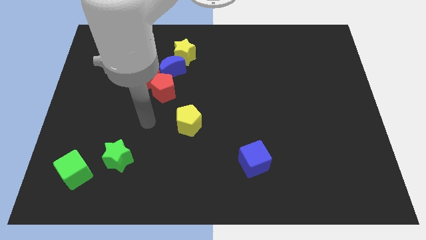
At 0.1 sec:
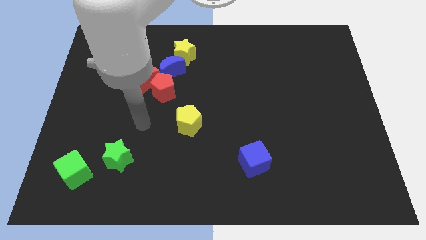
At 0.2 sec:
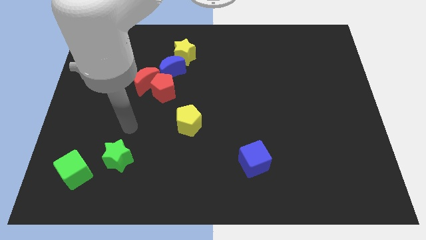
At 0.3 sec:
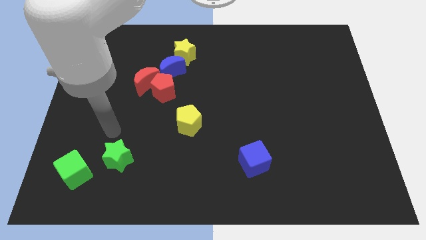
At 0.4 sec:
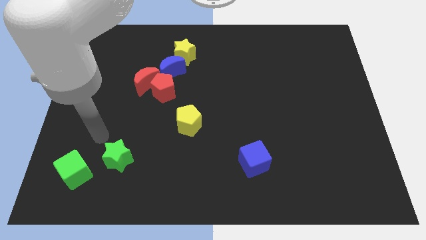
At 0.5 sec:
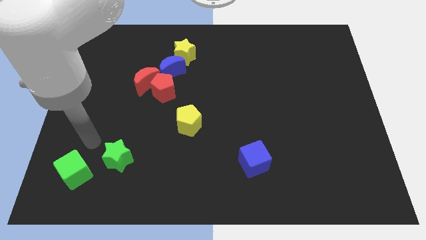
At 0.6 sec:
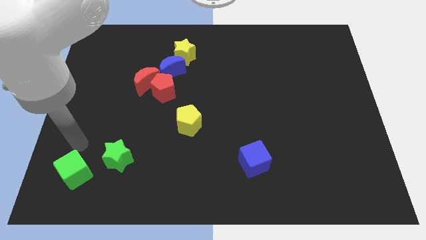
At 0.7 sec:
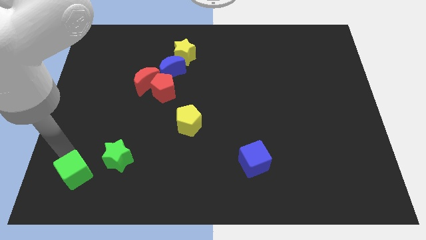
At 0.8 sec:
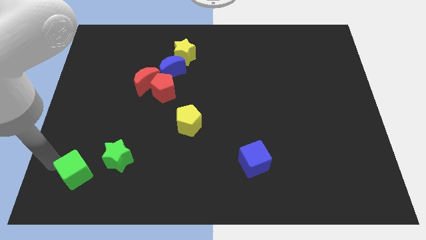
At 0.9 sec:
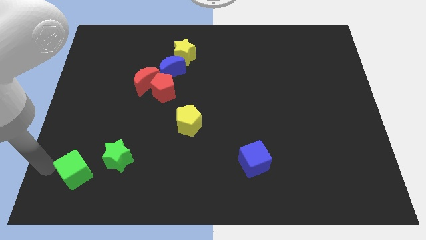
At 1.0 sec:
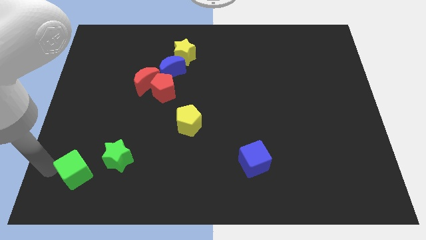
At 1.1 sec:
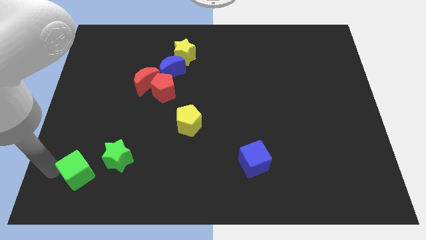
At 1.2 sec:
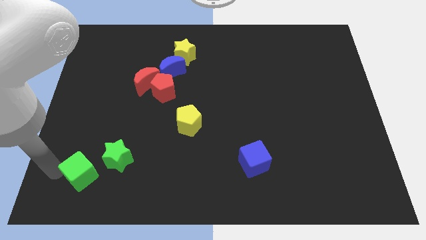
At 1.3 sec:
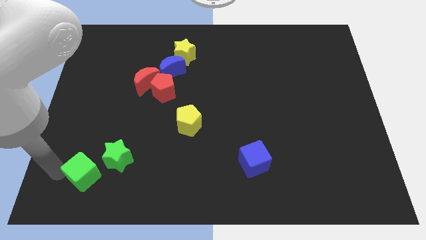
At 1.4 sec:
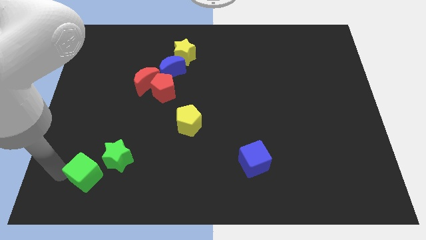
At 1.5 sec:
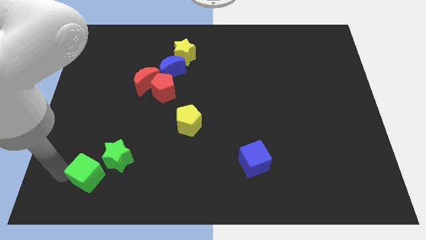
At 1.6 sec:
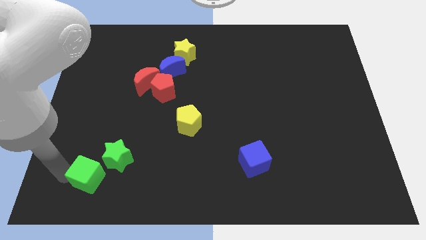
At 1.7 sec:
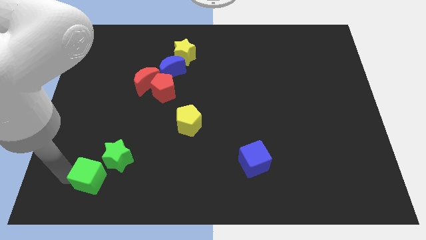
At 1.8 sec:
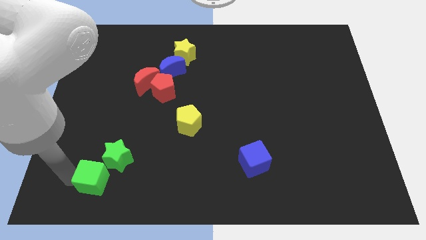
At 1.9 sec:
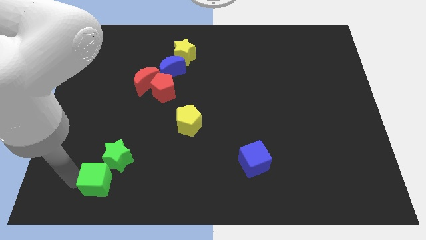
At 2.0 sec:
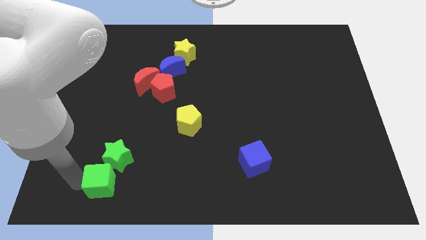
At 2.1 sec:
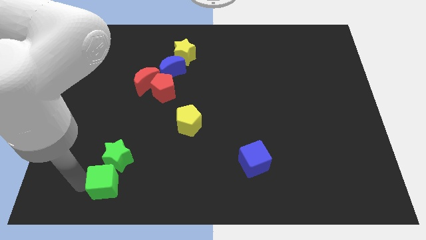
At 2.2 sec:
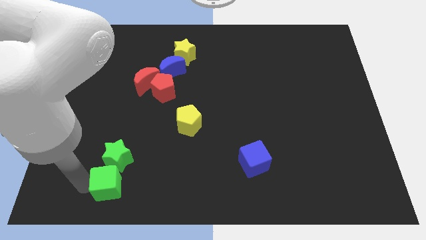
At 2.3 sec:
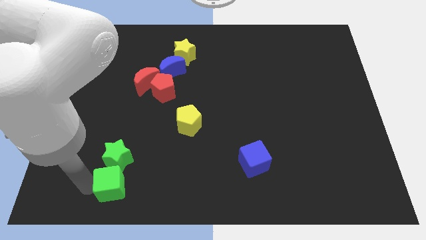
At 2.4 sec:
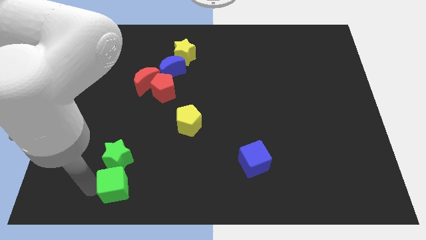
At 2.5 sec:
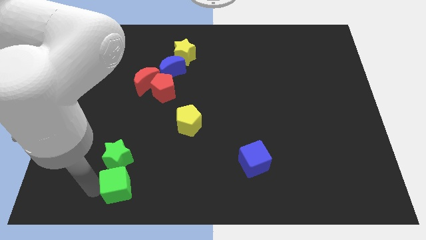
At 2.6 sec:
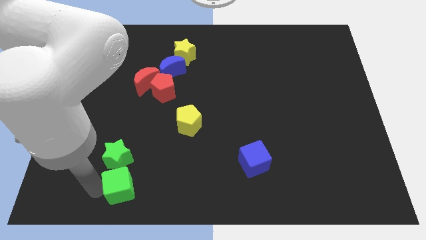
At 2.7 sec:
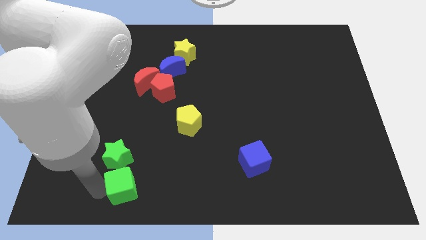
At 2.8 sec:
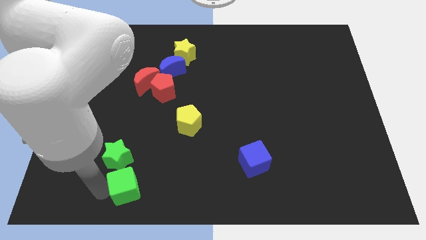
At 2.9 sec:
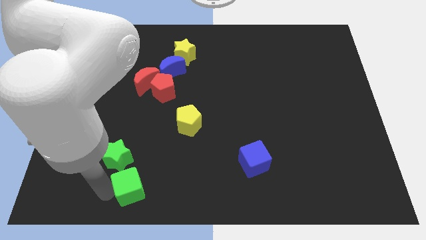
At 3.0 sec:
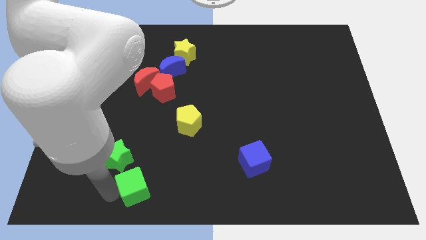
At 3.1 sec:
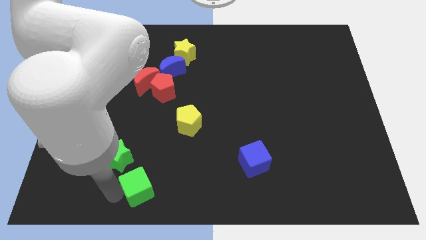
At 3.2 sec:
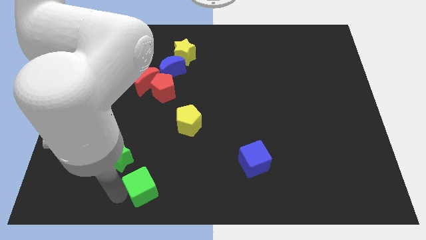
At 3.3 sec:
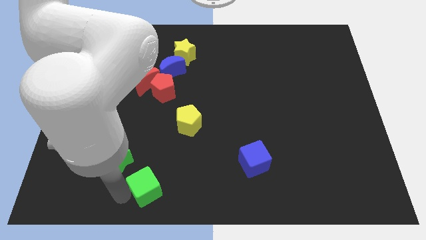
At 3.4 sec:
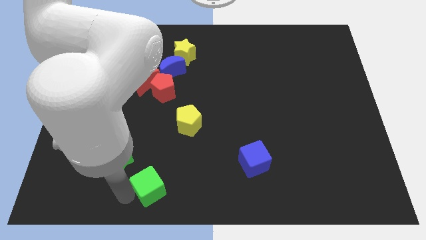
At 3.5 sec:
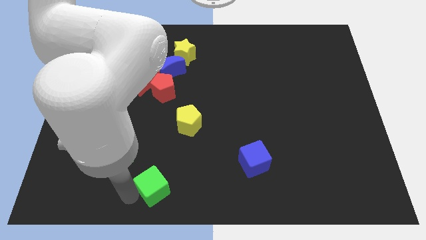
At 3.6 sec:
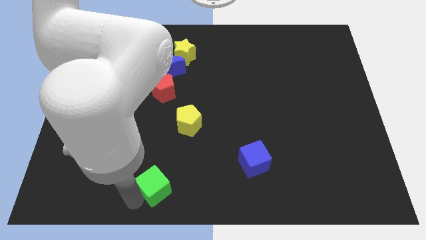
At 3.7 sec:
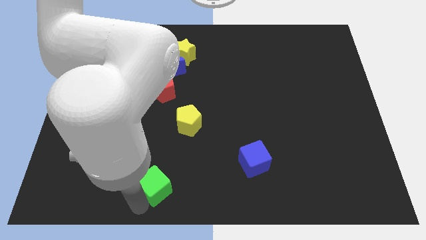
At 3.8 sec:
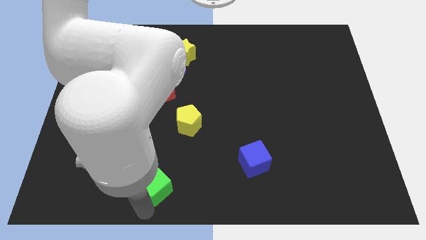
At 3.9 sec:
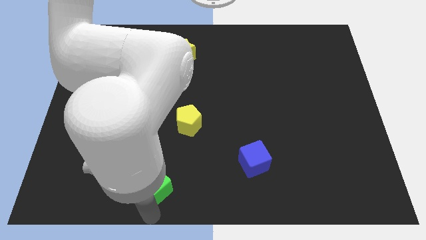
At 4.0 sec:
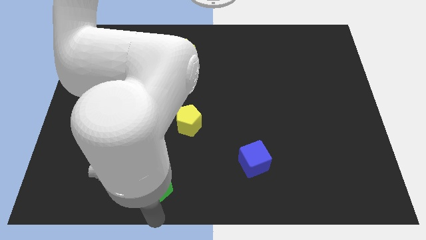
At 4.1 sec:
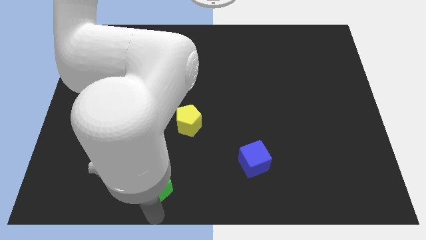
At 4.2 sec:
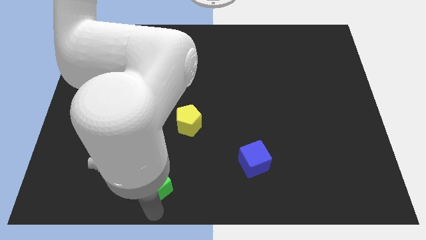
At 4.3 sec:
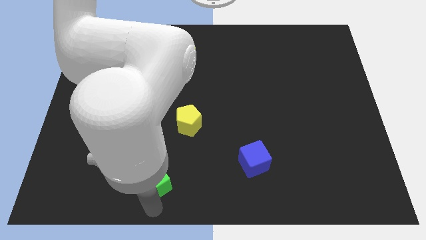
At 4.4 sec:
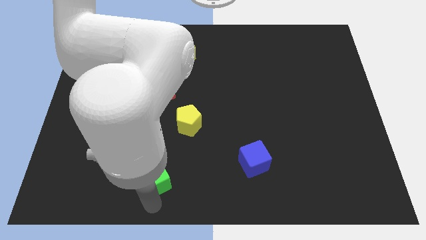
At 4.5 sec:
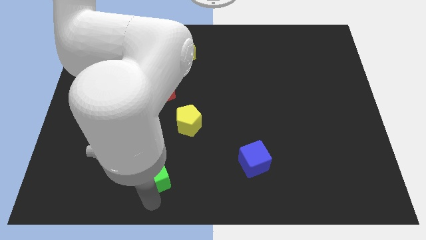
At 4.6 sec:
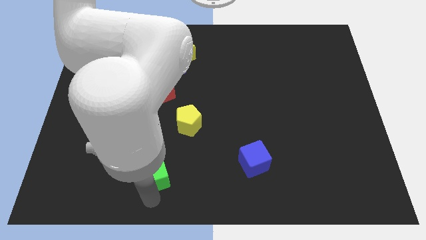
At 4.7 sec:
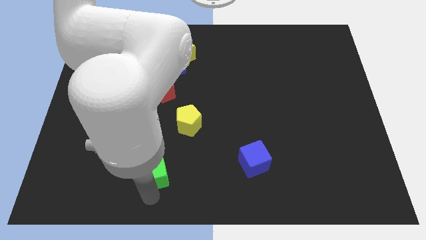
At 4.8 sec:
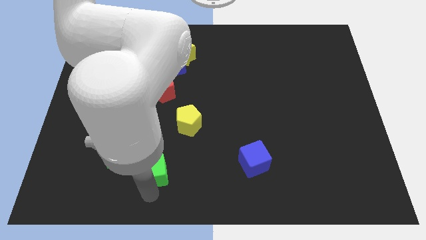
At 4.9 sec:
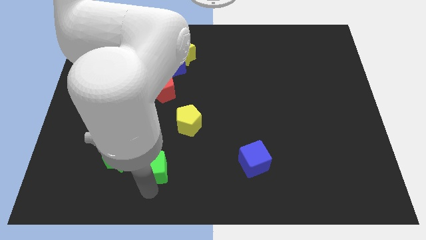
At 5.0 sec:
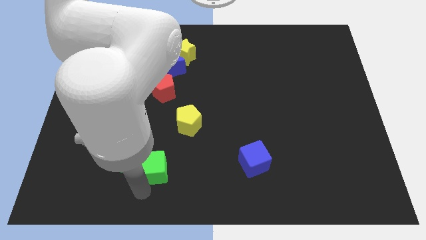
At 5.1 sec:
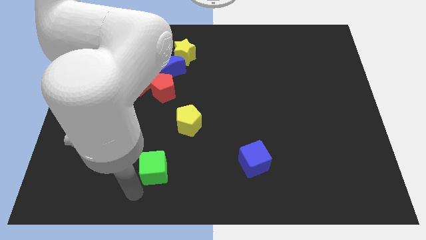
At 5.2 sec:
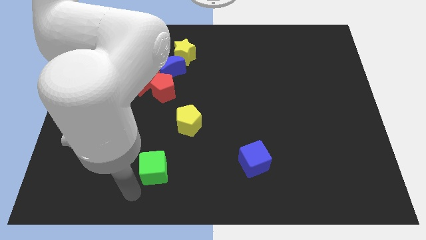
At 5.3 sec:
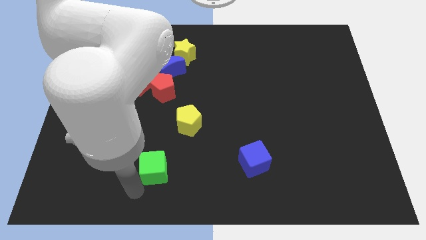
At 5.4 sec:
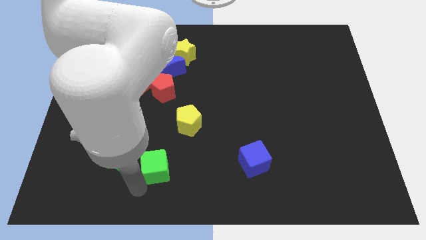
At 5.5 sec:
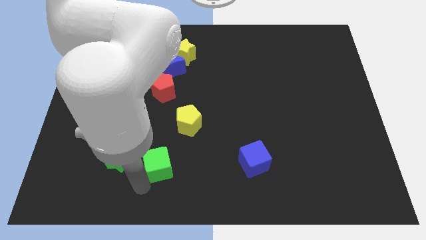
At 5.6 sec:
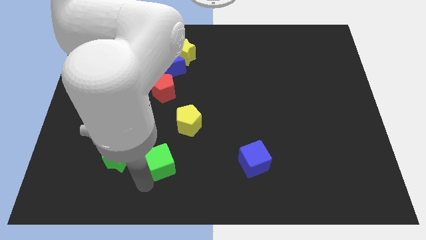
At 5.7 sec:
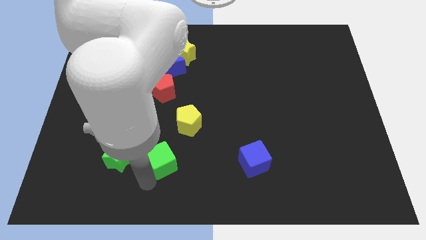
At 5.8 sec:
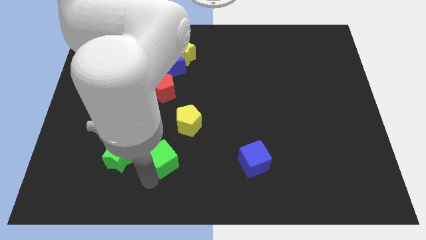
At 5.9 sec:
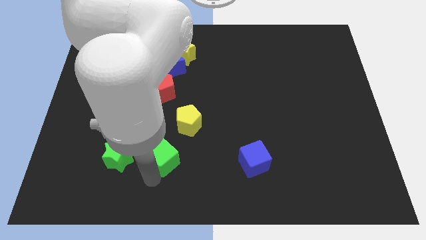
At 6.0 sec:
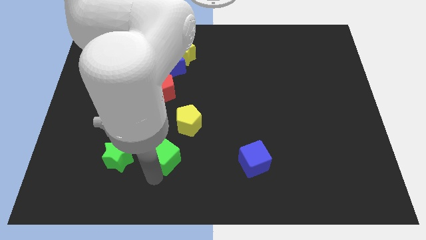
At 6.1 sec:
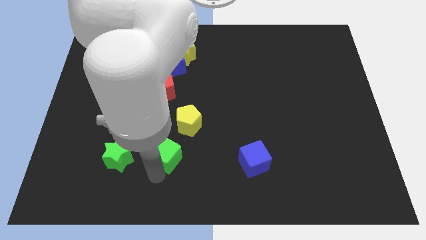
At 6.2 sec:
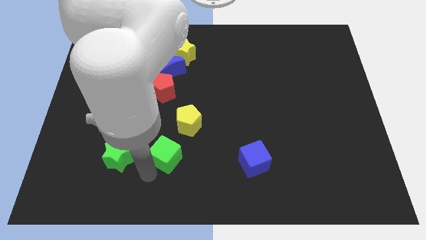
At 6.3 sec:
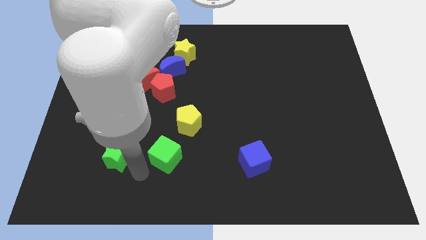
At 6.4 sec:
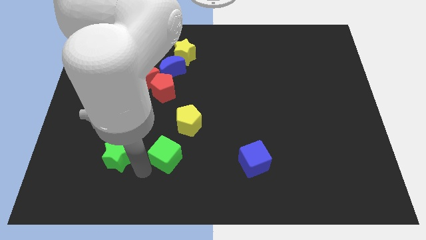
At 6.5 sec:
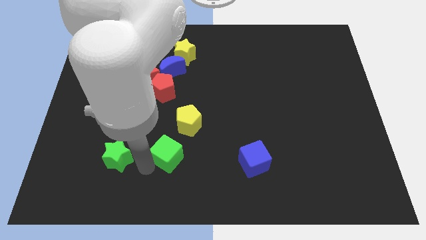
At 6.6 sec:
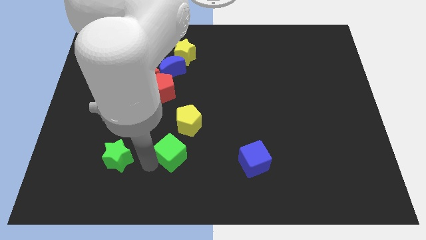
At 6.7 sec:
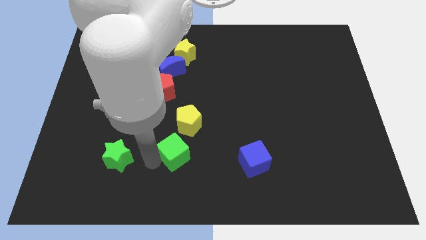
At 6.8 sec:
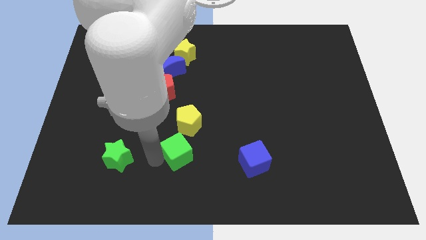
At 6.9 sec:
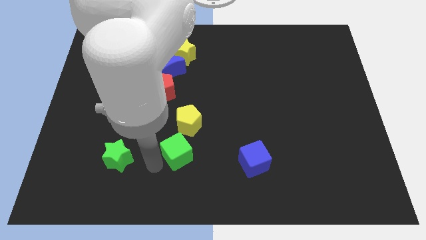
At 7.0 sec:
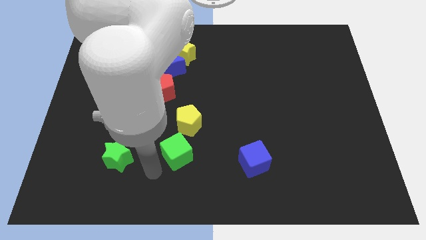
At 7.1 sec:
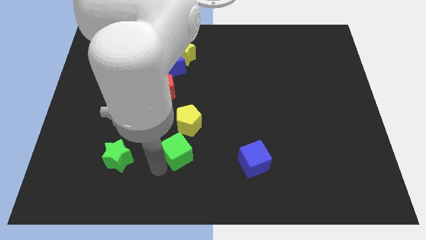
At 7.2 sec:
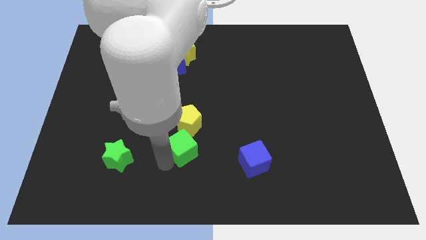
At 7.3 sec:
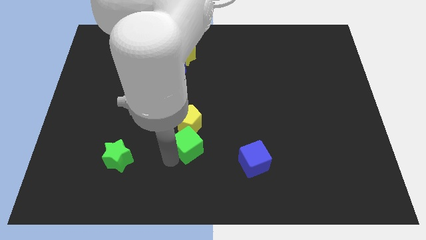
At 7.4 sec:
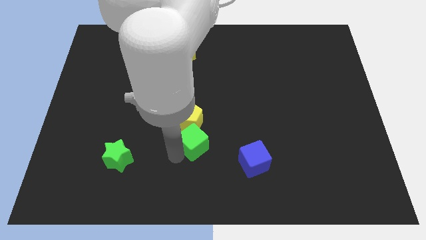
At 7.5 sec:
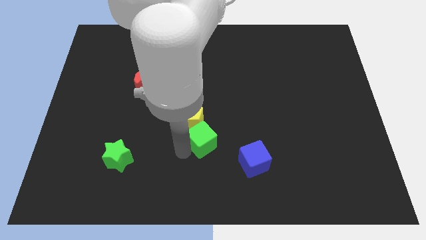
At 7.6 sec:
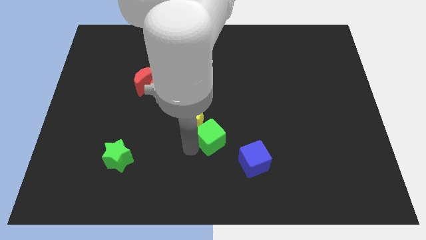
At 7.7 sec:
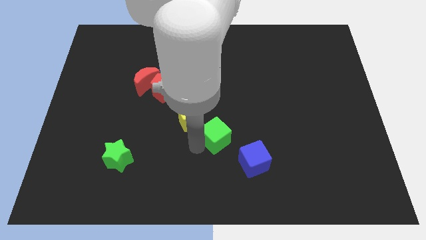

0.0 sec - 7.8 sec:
move the green cube right of the yellow pentagon
